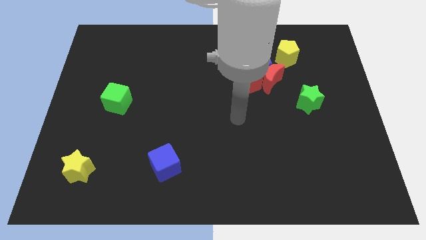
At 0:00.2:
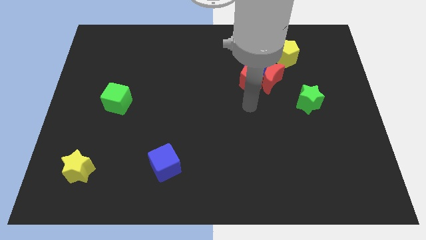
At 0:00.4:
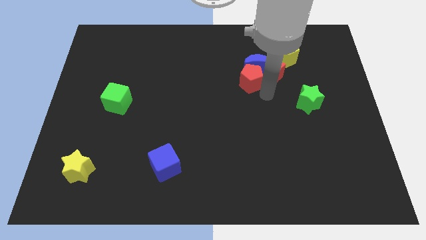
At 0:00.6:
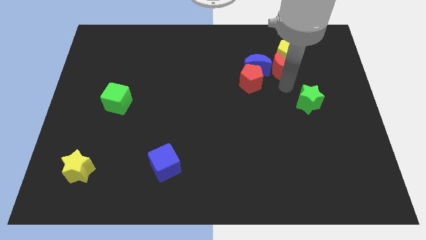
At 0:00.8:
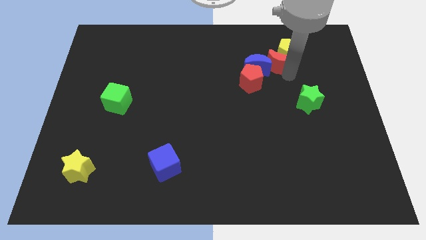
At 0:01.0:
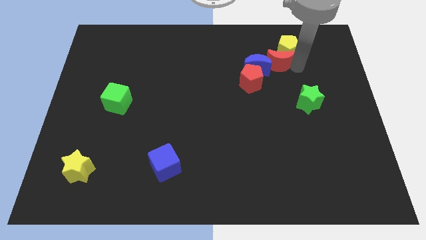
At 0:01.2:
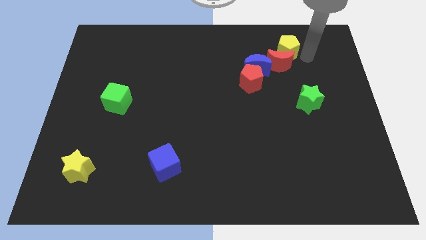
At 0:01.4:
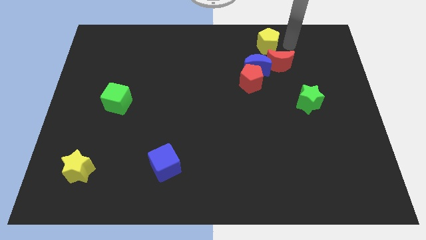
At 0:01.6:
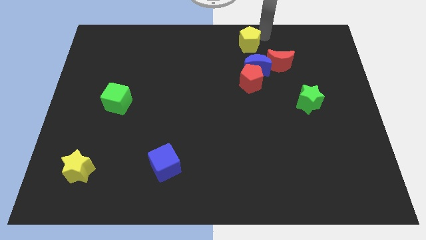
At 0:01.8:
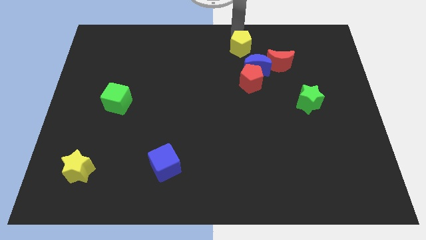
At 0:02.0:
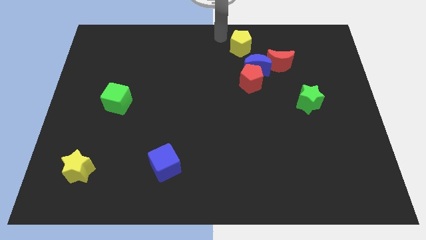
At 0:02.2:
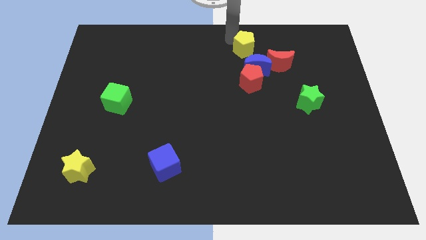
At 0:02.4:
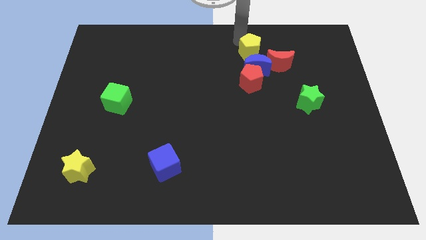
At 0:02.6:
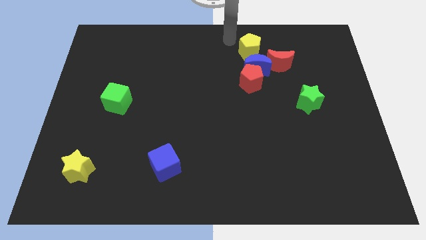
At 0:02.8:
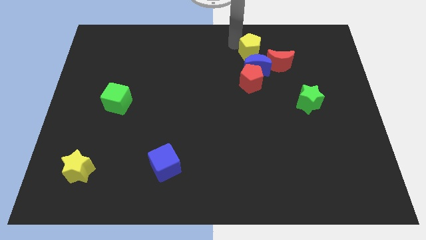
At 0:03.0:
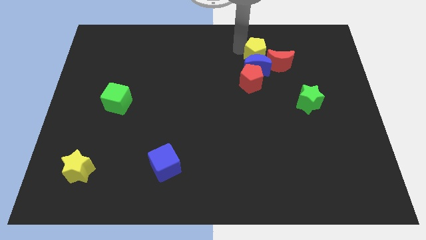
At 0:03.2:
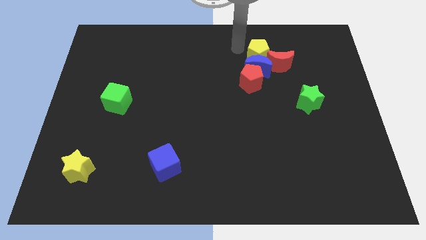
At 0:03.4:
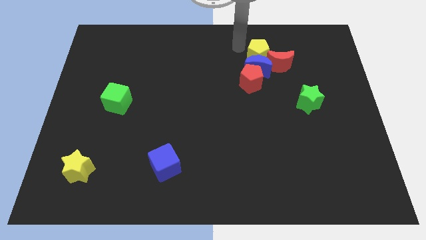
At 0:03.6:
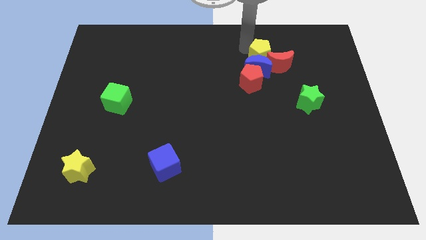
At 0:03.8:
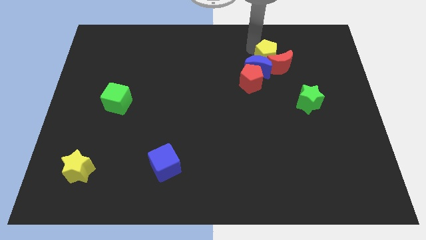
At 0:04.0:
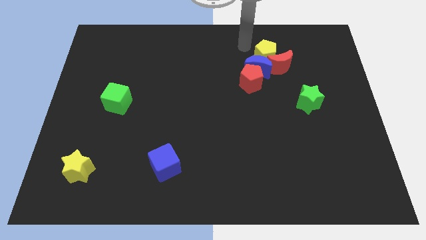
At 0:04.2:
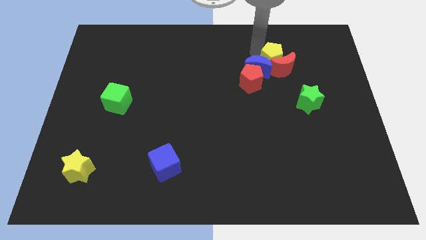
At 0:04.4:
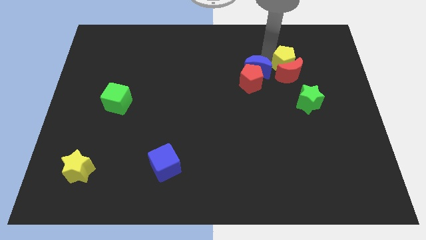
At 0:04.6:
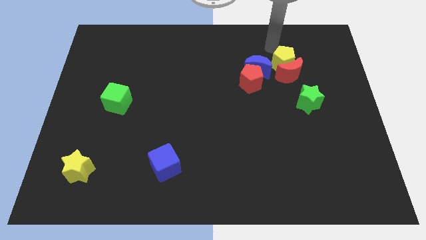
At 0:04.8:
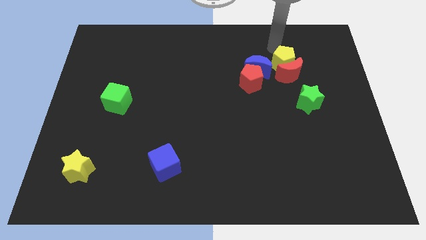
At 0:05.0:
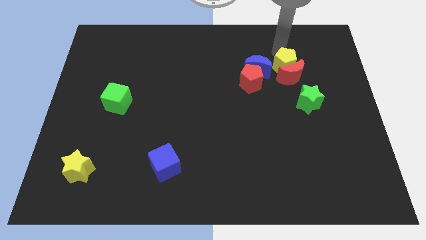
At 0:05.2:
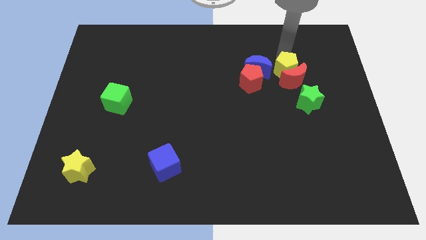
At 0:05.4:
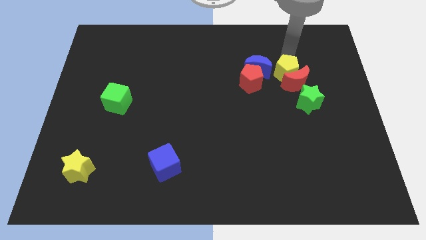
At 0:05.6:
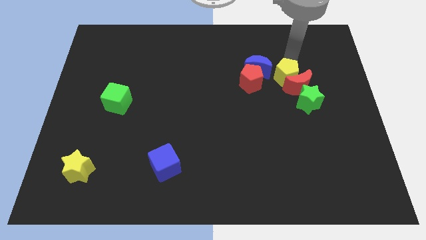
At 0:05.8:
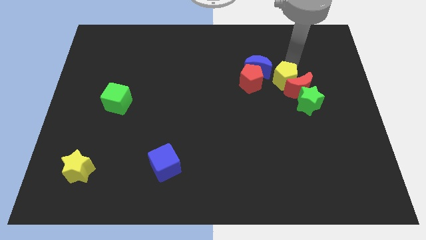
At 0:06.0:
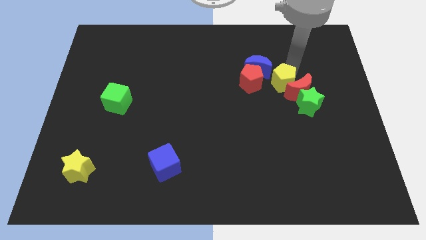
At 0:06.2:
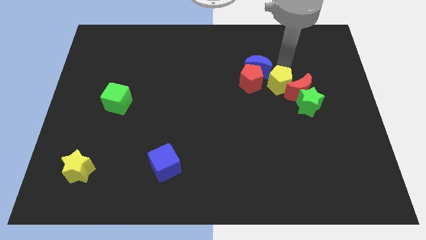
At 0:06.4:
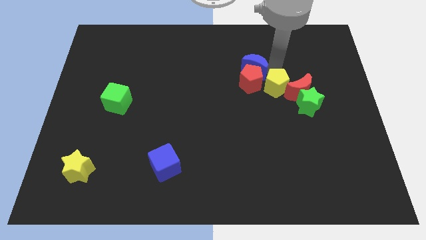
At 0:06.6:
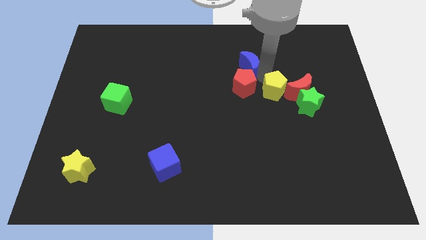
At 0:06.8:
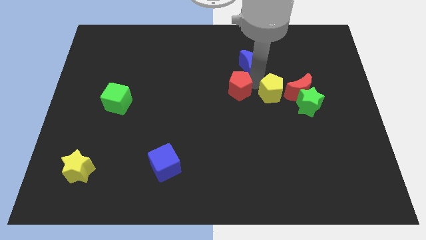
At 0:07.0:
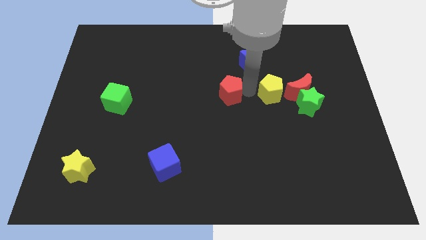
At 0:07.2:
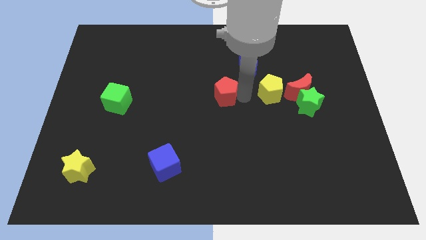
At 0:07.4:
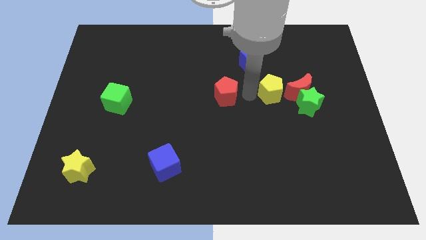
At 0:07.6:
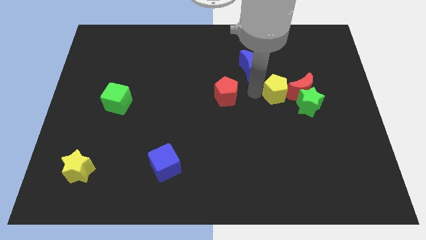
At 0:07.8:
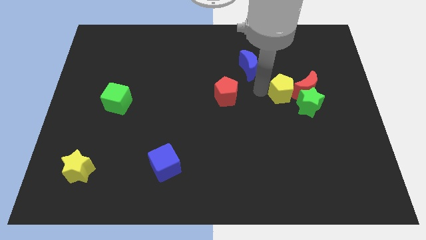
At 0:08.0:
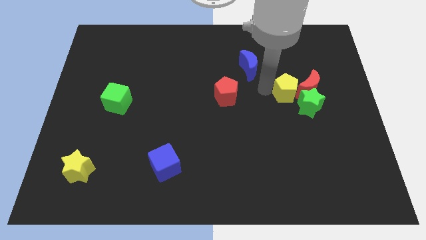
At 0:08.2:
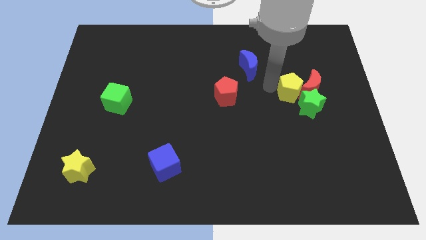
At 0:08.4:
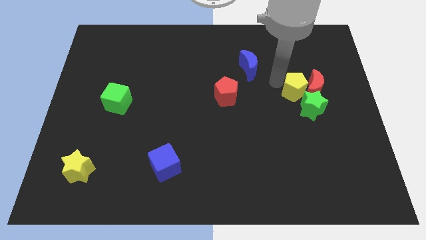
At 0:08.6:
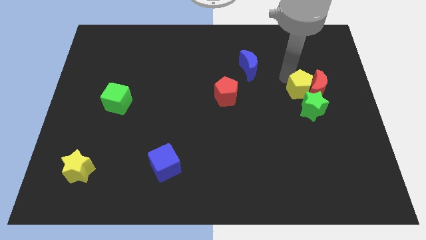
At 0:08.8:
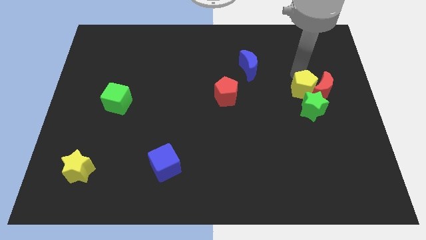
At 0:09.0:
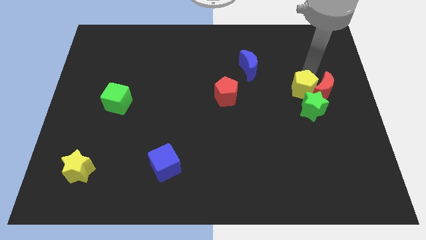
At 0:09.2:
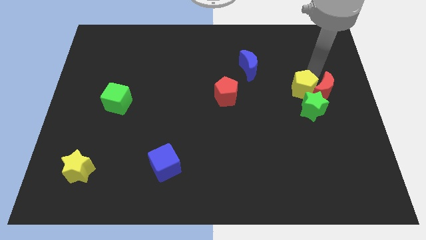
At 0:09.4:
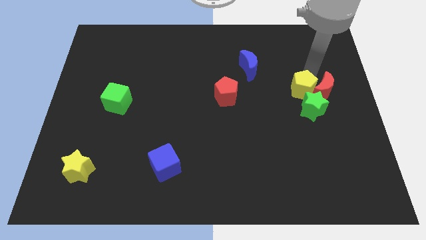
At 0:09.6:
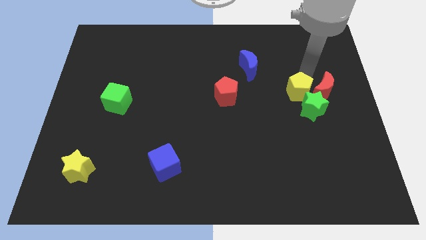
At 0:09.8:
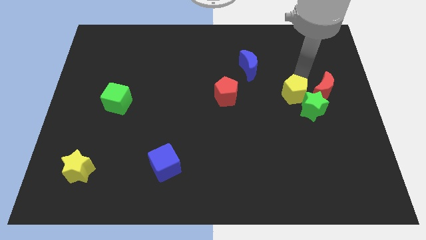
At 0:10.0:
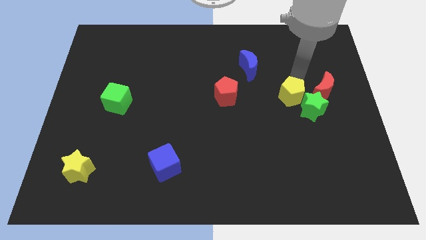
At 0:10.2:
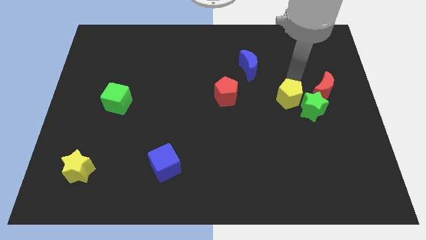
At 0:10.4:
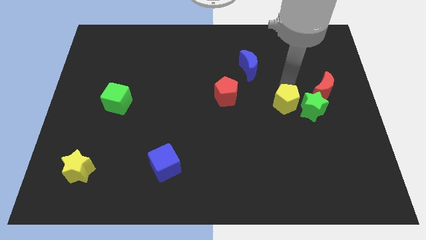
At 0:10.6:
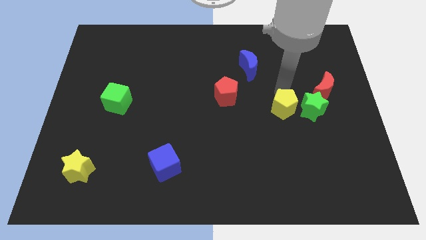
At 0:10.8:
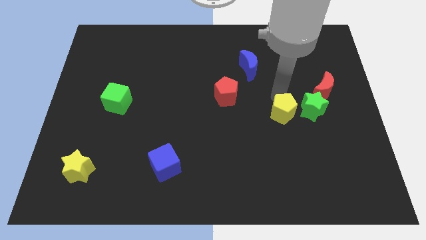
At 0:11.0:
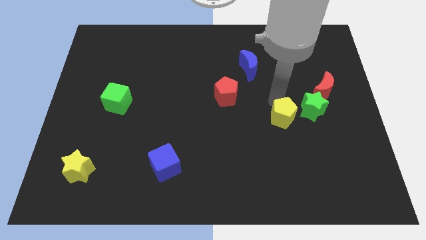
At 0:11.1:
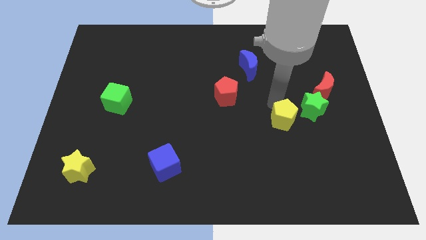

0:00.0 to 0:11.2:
push the yellow pentagon down

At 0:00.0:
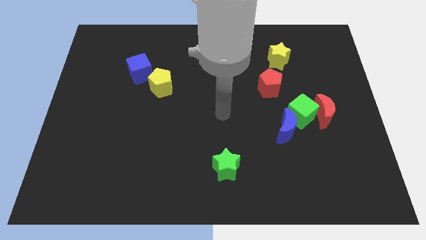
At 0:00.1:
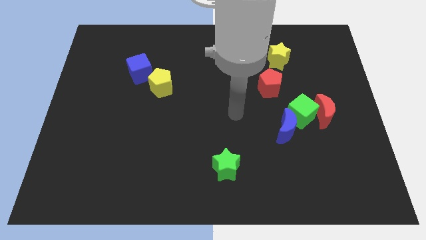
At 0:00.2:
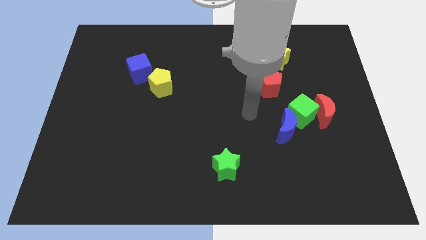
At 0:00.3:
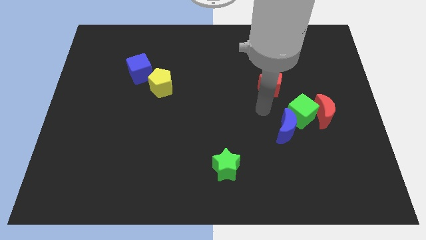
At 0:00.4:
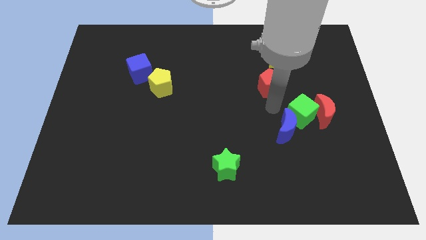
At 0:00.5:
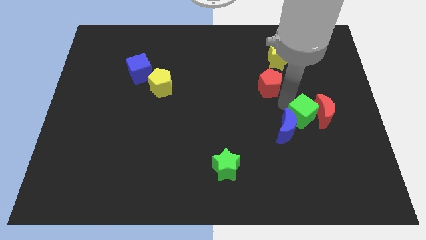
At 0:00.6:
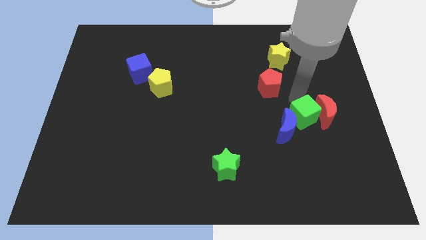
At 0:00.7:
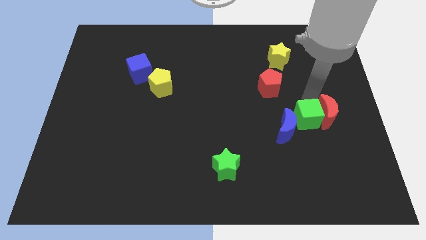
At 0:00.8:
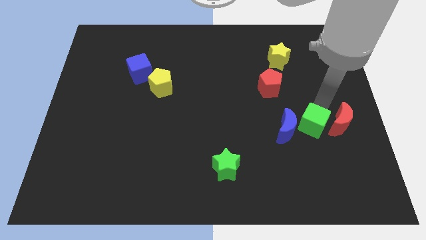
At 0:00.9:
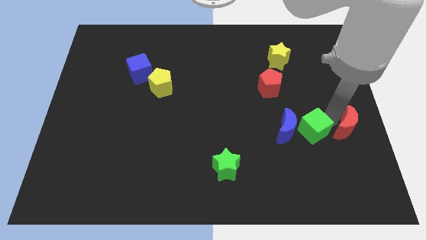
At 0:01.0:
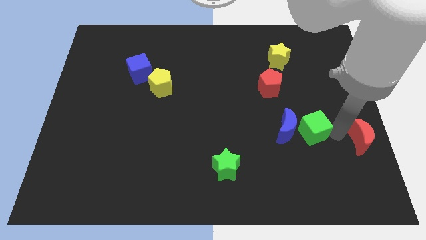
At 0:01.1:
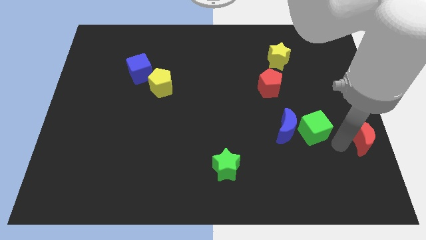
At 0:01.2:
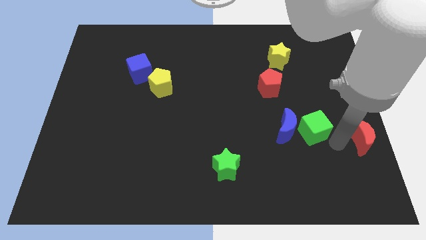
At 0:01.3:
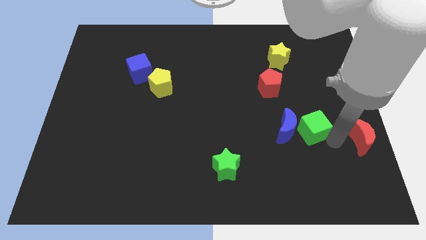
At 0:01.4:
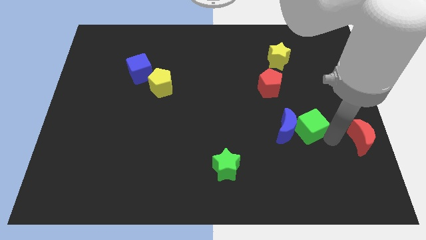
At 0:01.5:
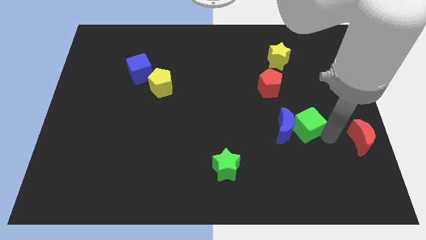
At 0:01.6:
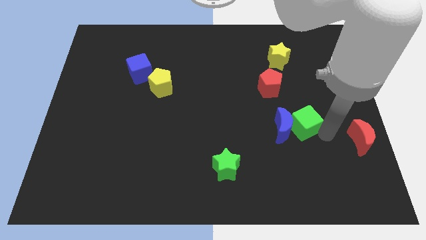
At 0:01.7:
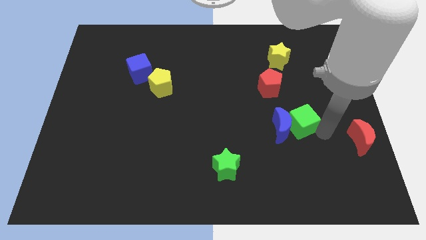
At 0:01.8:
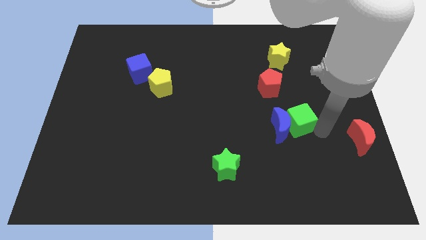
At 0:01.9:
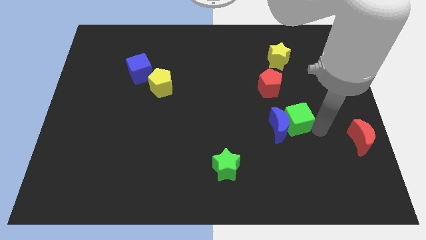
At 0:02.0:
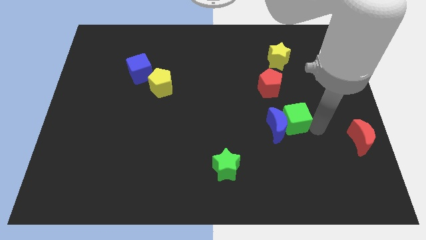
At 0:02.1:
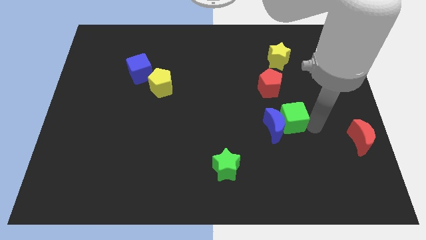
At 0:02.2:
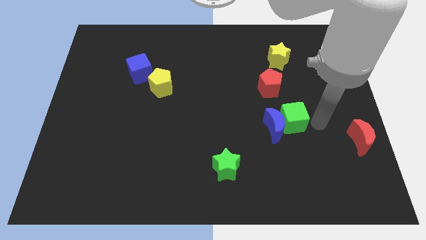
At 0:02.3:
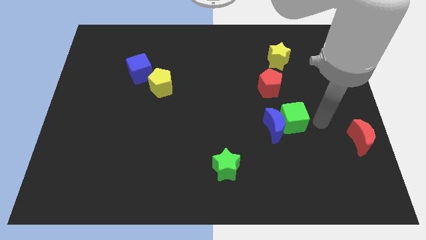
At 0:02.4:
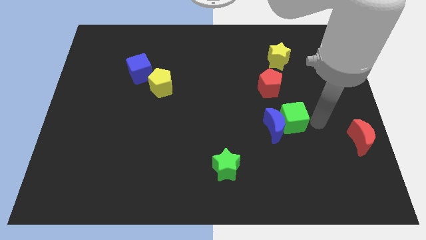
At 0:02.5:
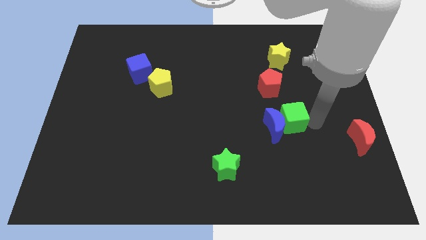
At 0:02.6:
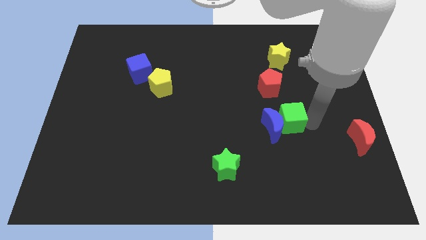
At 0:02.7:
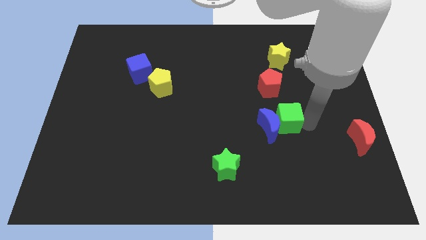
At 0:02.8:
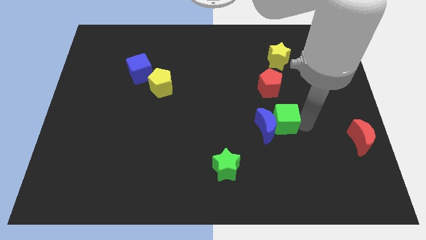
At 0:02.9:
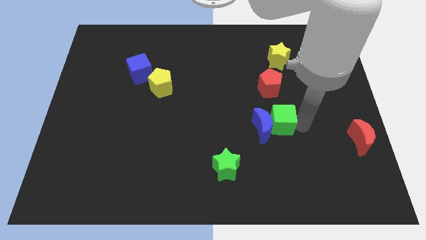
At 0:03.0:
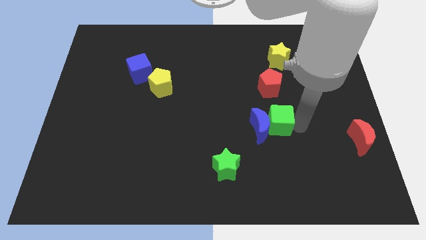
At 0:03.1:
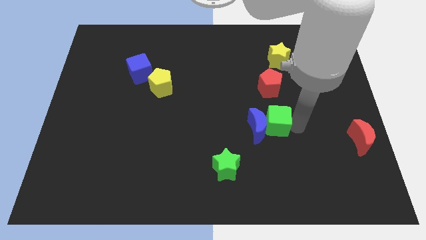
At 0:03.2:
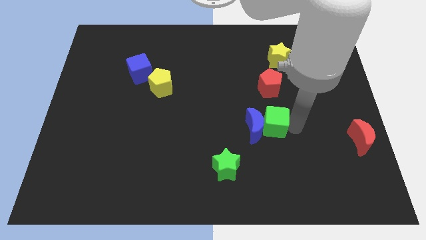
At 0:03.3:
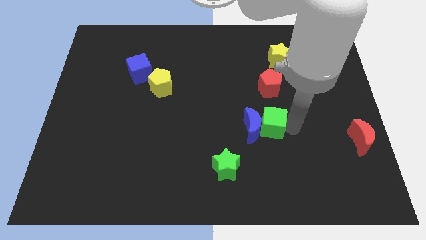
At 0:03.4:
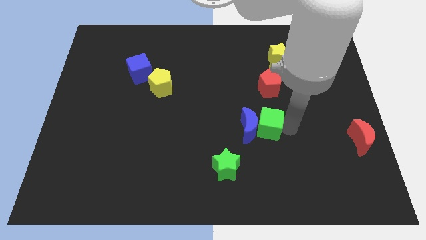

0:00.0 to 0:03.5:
slightly push the green cube left
